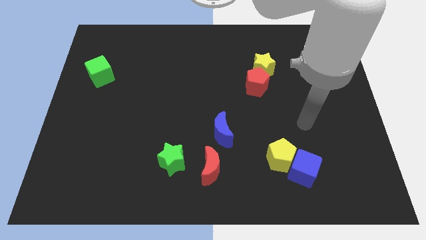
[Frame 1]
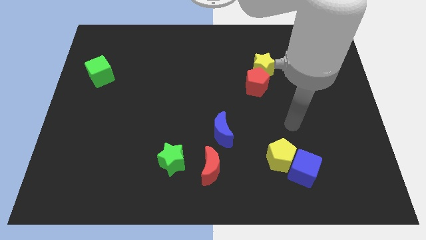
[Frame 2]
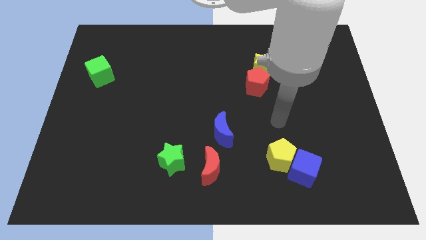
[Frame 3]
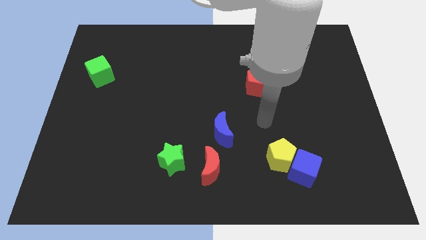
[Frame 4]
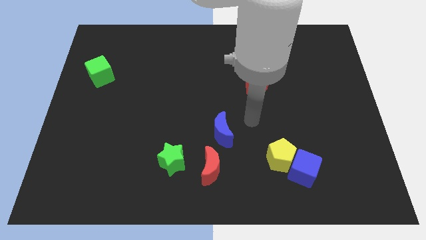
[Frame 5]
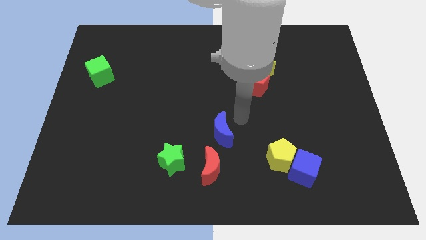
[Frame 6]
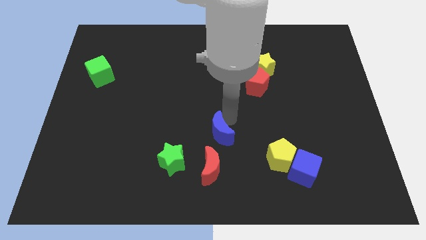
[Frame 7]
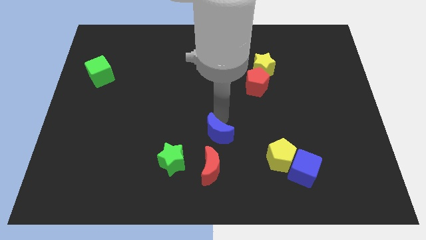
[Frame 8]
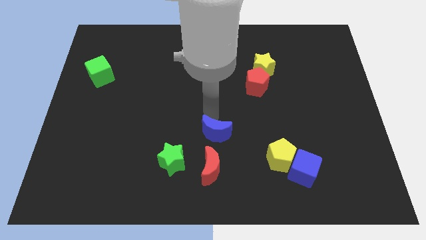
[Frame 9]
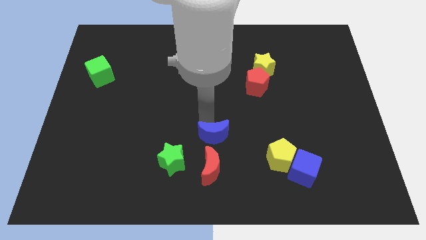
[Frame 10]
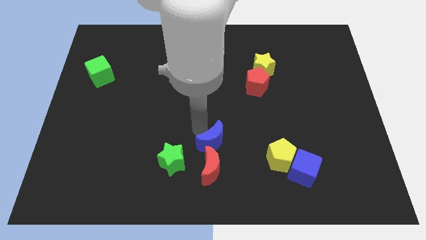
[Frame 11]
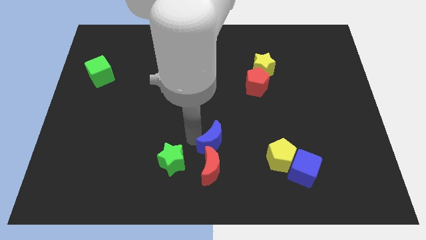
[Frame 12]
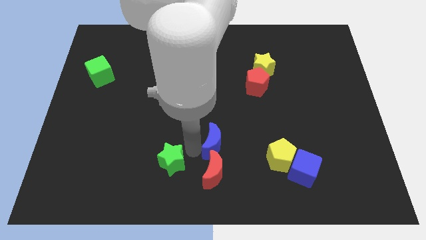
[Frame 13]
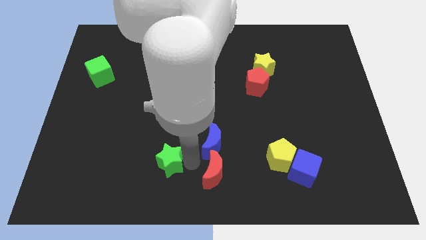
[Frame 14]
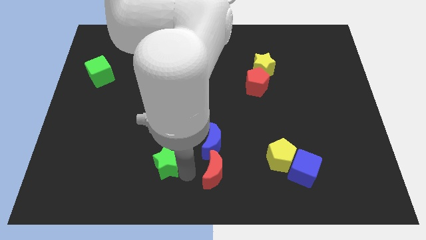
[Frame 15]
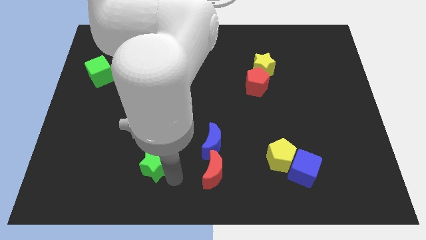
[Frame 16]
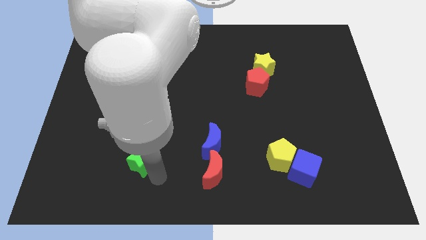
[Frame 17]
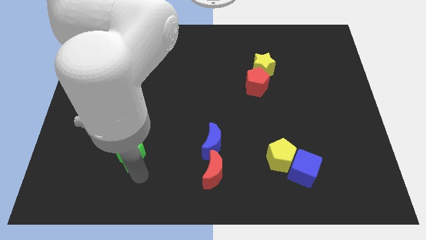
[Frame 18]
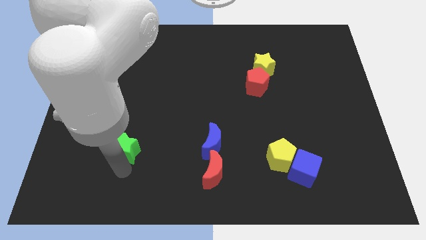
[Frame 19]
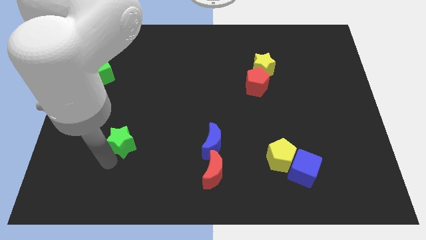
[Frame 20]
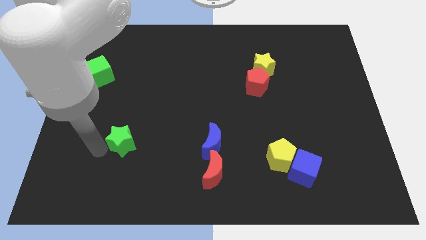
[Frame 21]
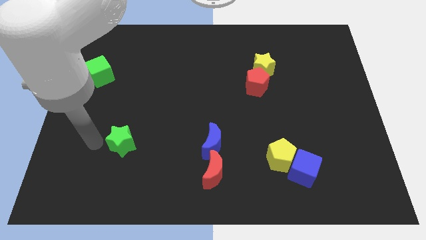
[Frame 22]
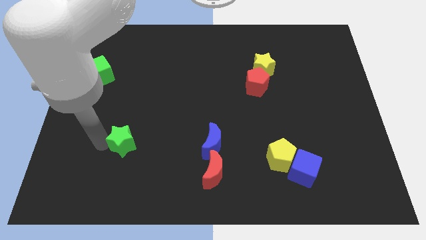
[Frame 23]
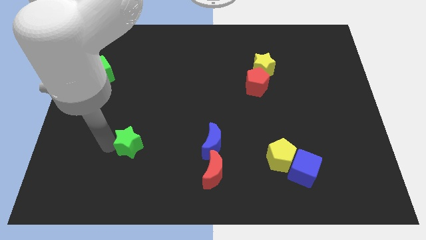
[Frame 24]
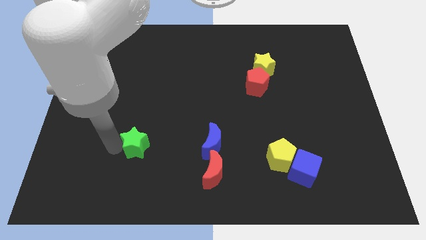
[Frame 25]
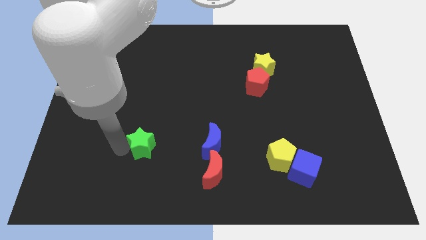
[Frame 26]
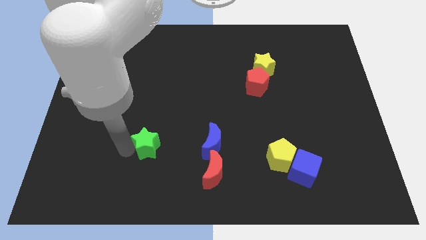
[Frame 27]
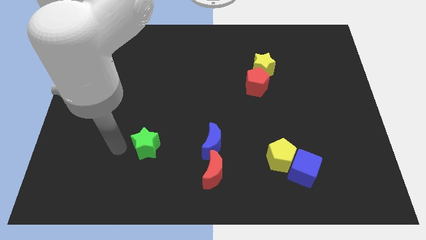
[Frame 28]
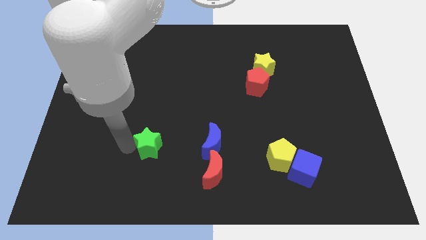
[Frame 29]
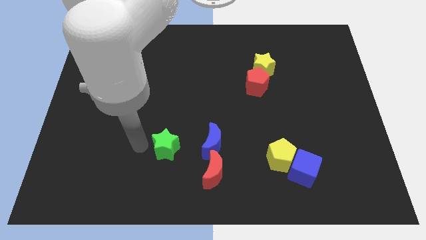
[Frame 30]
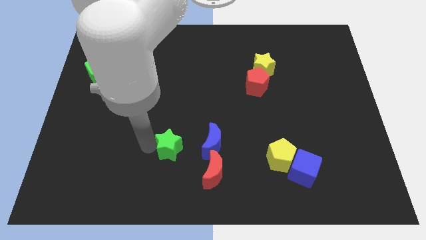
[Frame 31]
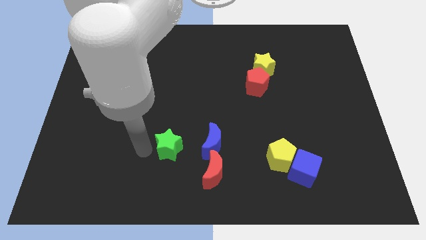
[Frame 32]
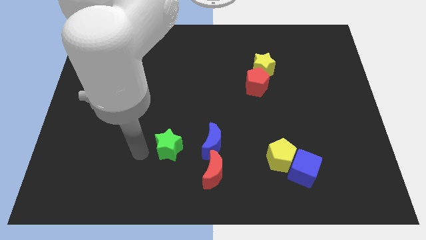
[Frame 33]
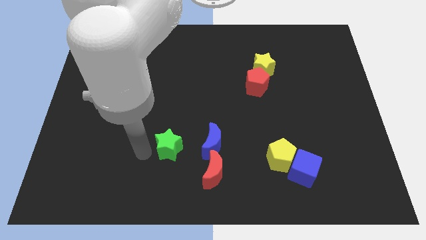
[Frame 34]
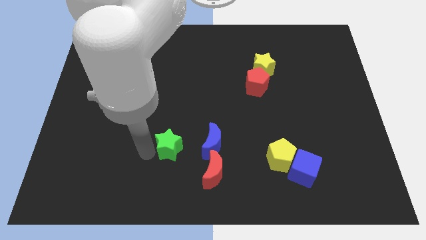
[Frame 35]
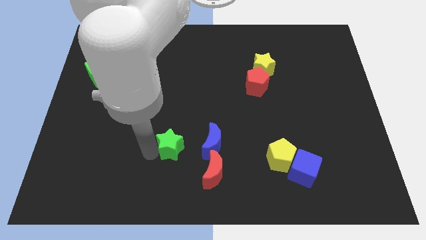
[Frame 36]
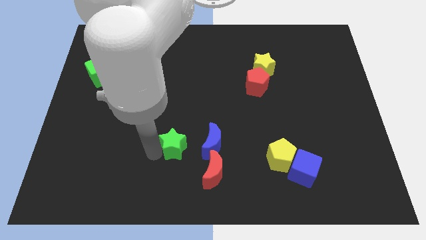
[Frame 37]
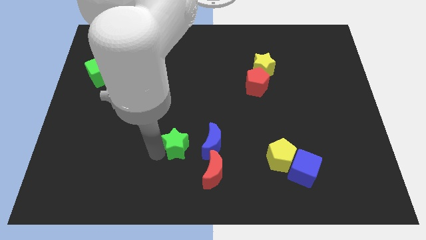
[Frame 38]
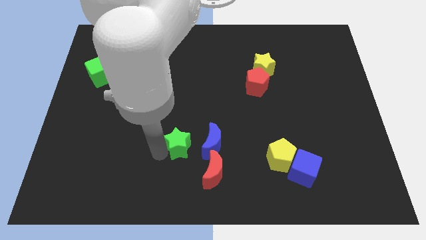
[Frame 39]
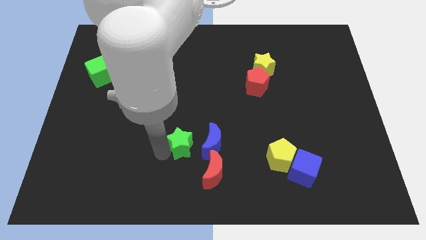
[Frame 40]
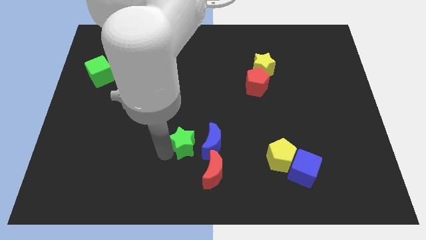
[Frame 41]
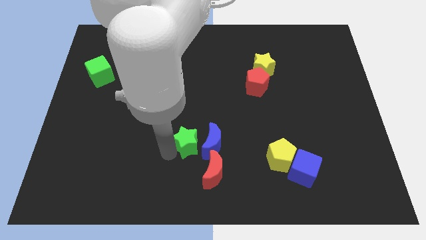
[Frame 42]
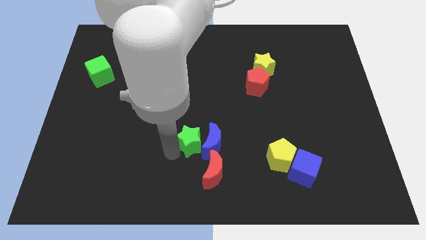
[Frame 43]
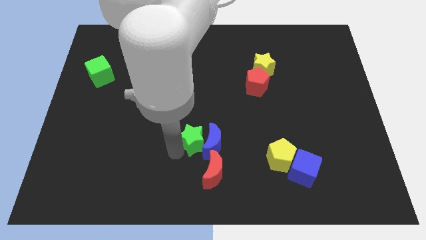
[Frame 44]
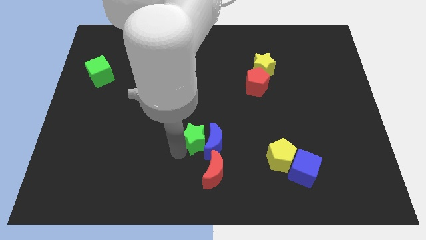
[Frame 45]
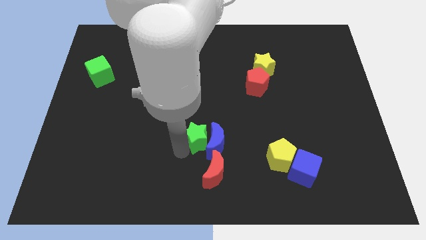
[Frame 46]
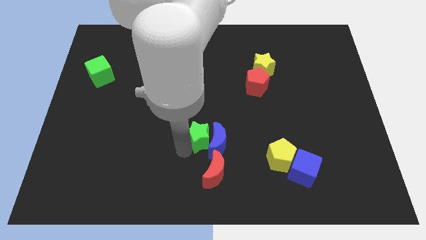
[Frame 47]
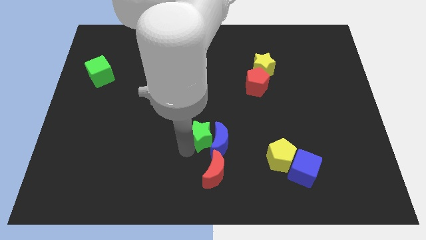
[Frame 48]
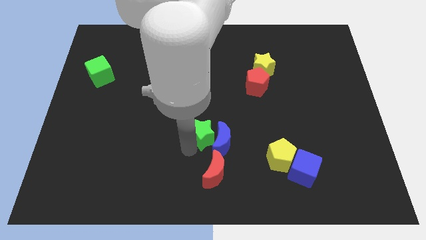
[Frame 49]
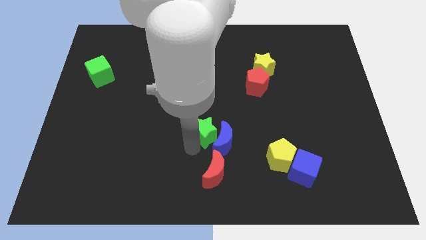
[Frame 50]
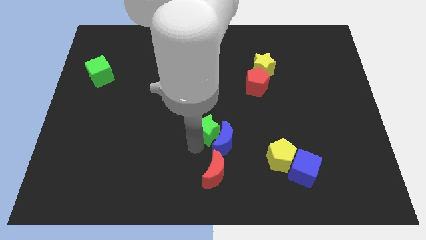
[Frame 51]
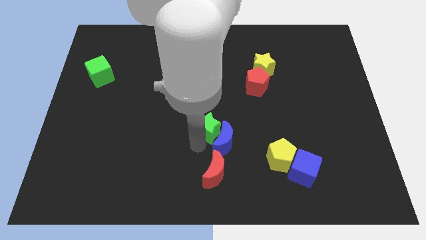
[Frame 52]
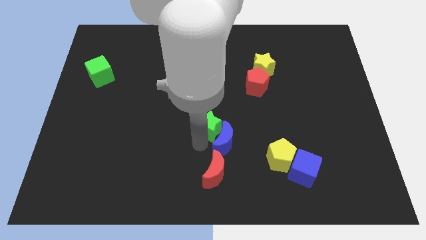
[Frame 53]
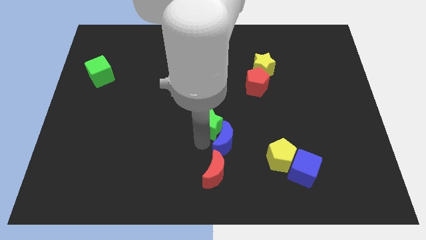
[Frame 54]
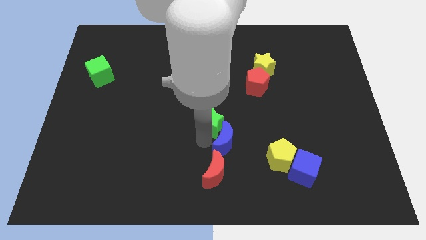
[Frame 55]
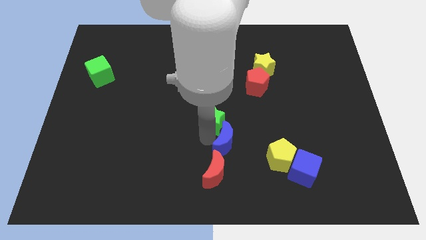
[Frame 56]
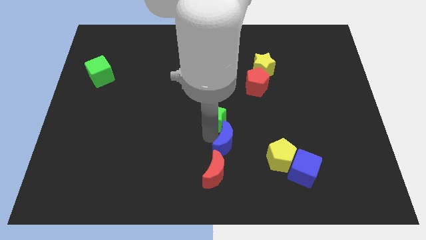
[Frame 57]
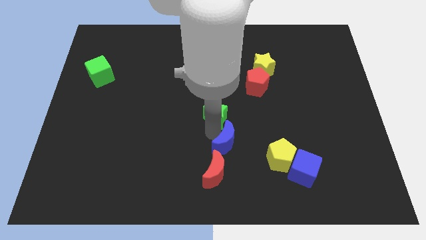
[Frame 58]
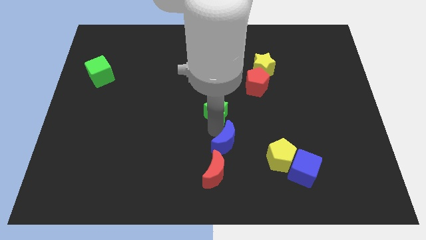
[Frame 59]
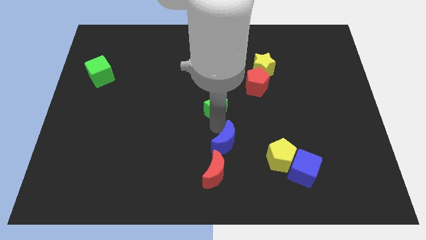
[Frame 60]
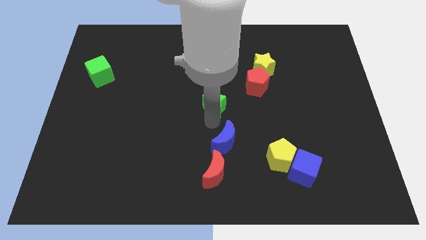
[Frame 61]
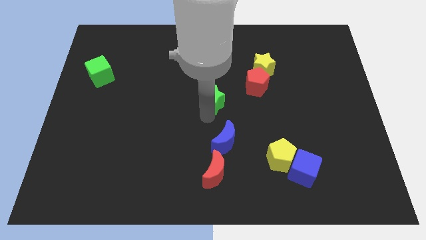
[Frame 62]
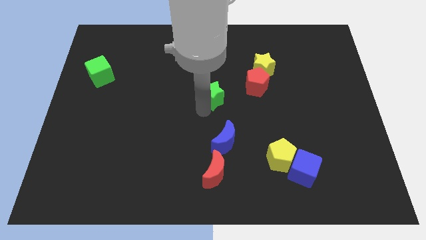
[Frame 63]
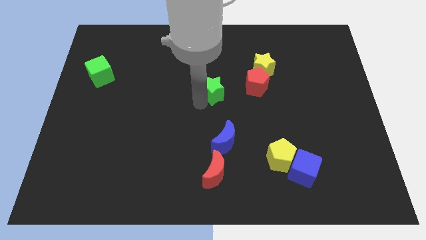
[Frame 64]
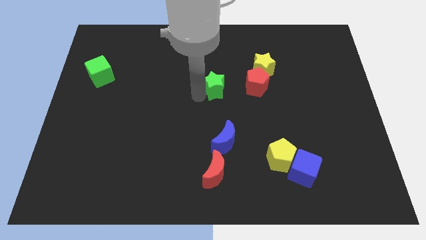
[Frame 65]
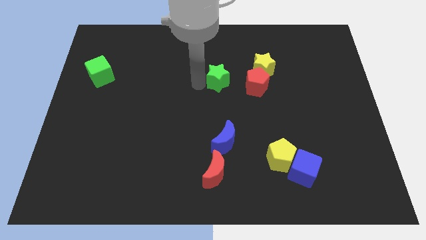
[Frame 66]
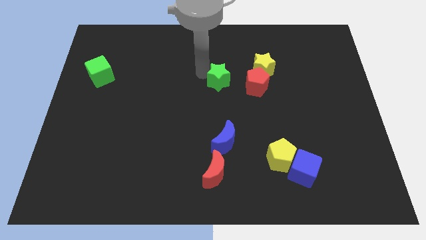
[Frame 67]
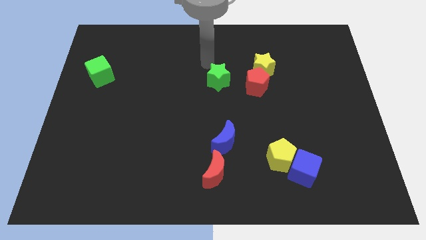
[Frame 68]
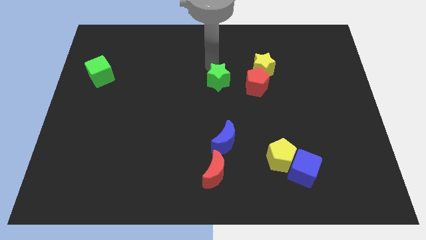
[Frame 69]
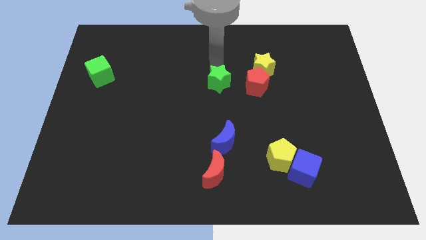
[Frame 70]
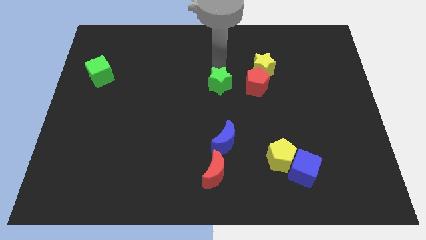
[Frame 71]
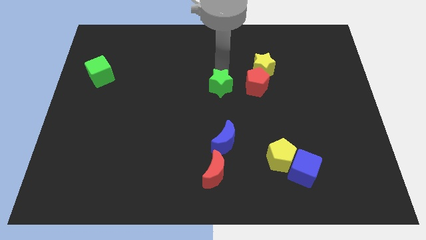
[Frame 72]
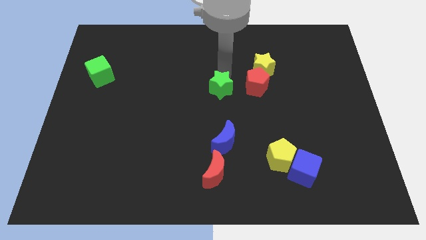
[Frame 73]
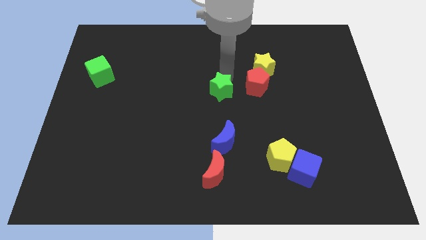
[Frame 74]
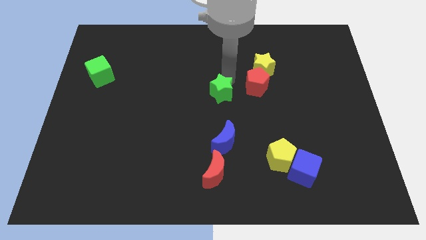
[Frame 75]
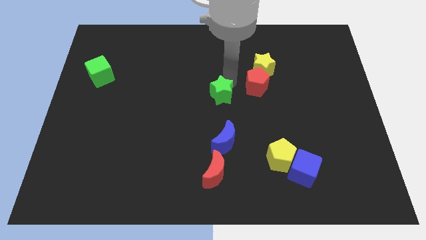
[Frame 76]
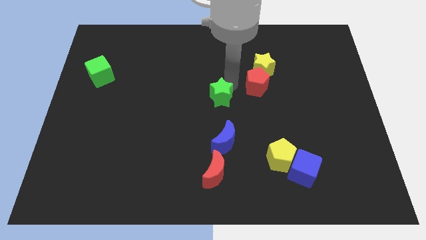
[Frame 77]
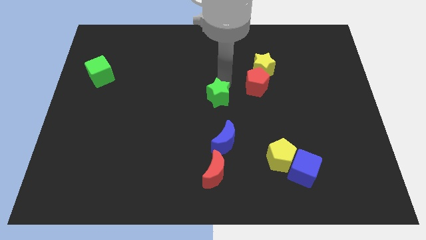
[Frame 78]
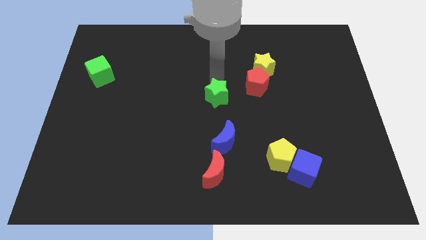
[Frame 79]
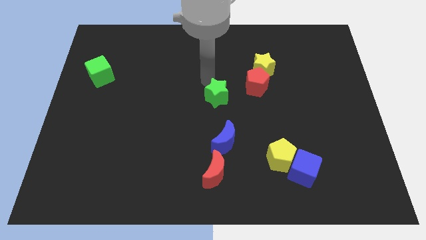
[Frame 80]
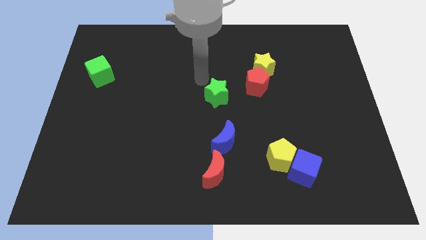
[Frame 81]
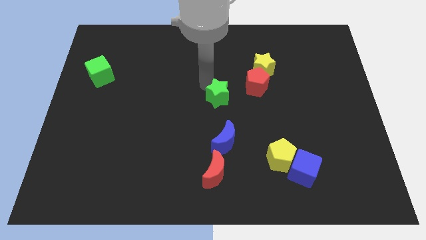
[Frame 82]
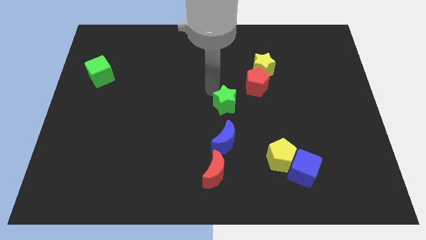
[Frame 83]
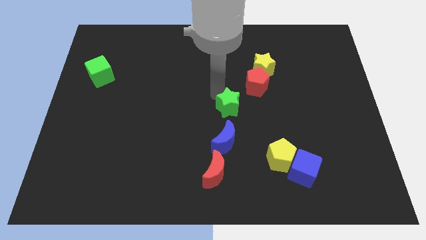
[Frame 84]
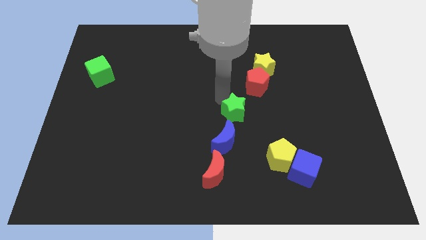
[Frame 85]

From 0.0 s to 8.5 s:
put the green star to the top right side of the blue moon
